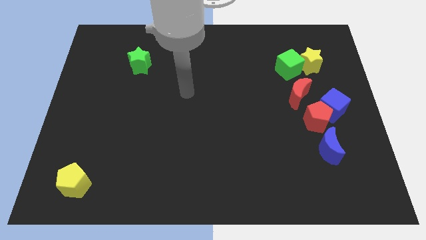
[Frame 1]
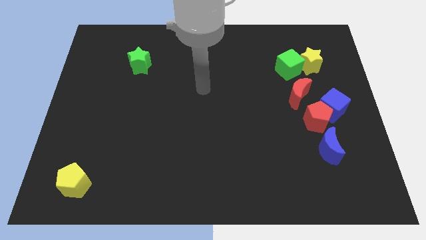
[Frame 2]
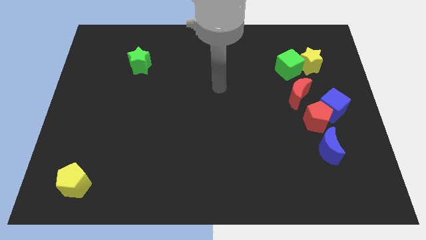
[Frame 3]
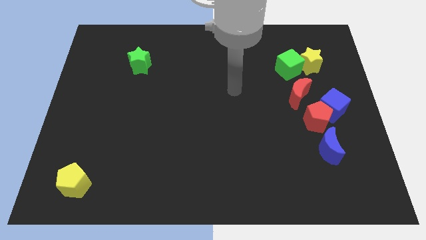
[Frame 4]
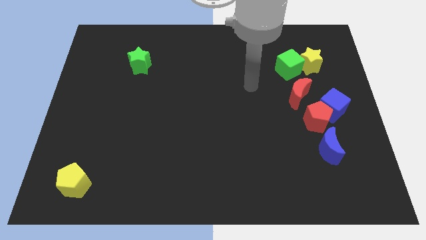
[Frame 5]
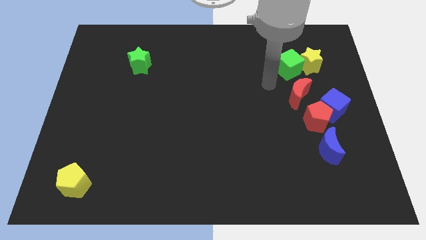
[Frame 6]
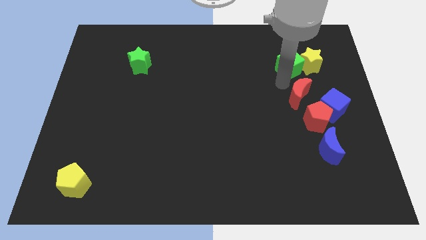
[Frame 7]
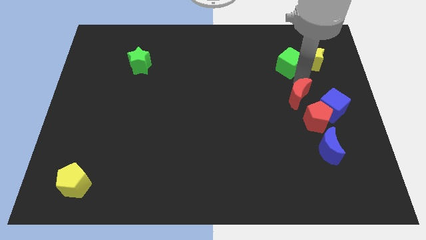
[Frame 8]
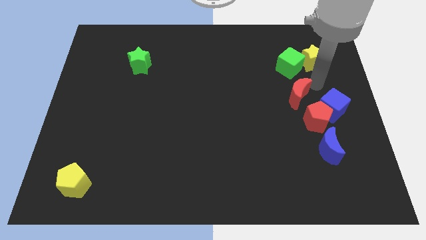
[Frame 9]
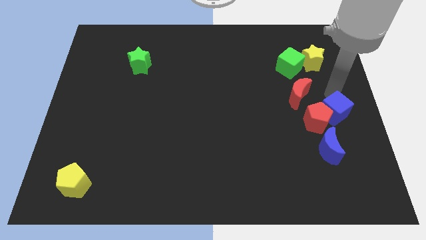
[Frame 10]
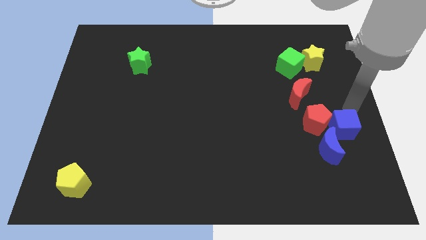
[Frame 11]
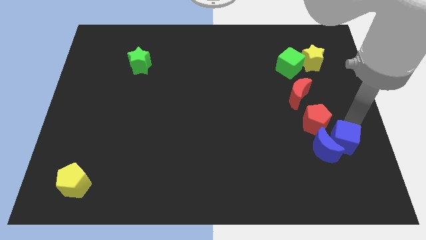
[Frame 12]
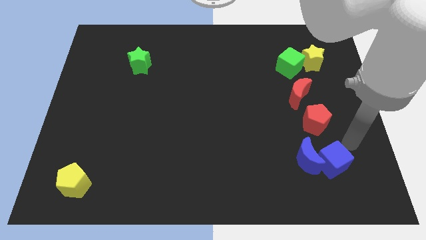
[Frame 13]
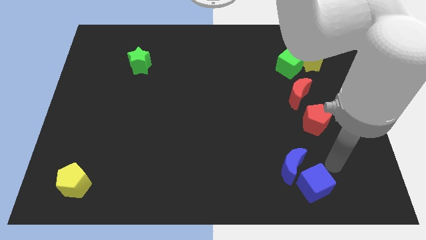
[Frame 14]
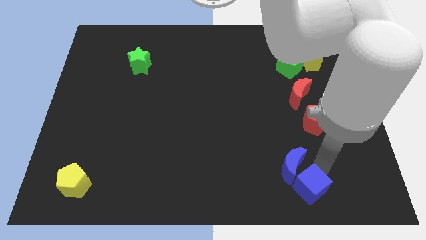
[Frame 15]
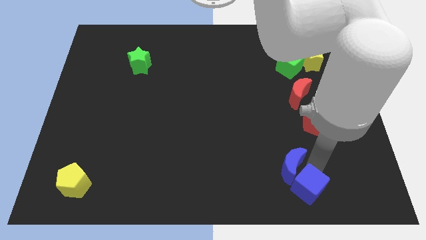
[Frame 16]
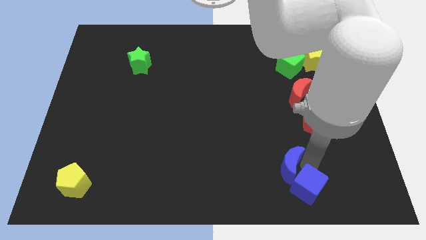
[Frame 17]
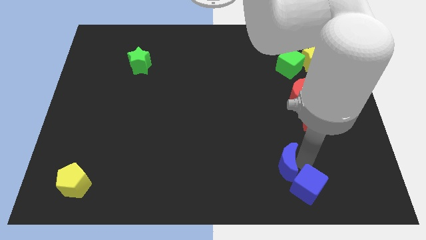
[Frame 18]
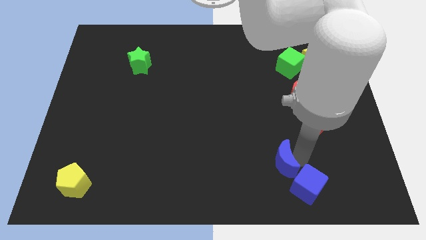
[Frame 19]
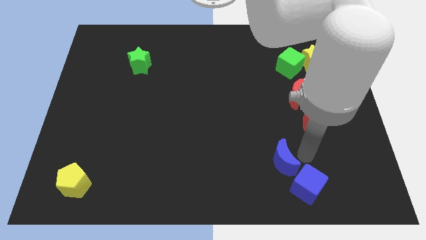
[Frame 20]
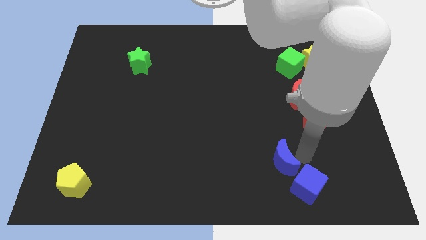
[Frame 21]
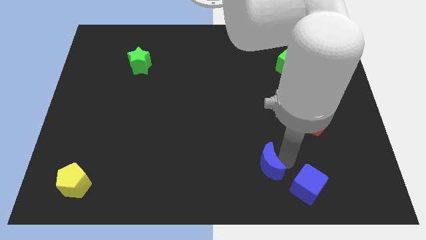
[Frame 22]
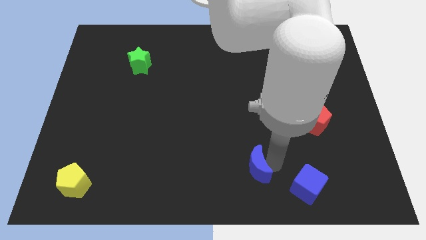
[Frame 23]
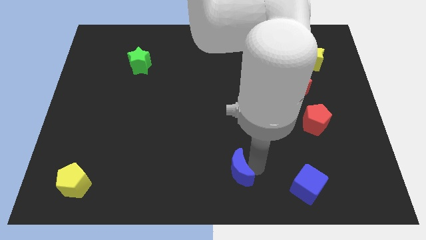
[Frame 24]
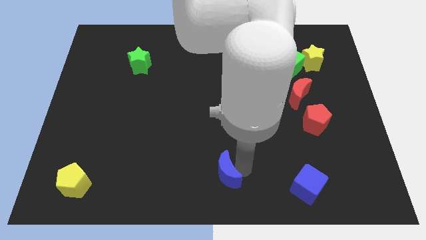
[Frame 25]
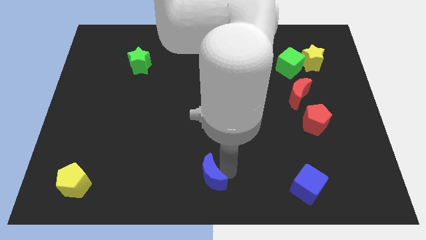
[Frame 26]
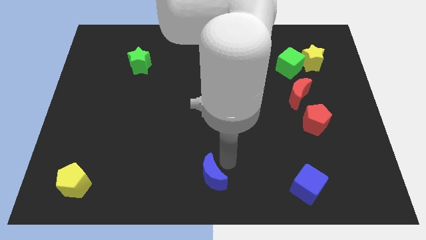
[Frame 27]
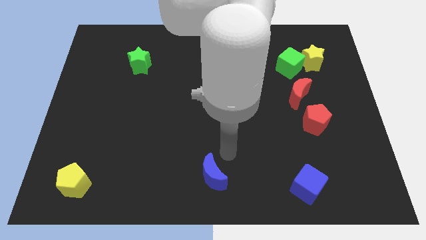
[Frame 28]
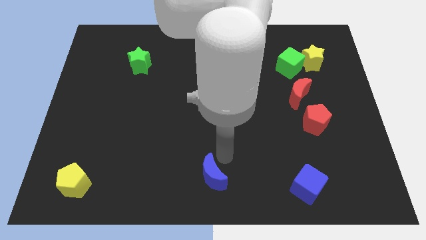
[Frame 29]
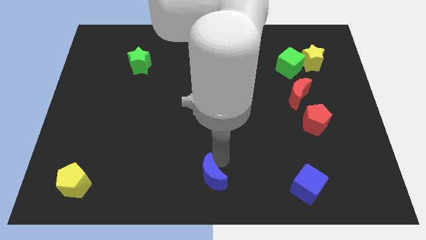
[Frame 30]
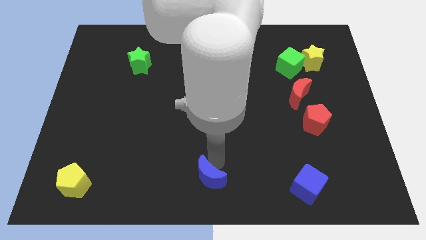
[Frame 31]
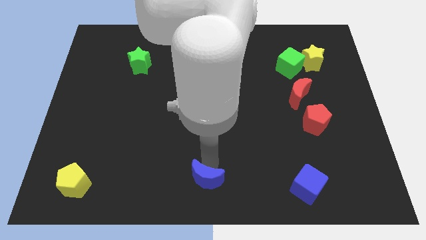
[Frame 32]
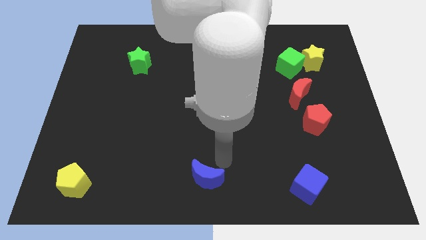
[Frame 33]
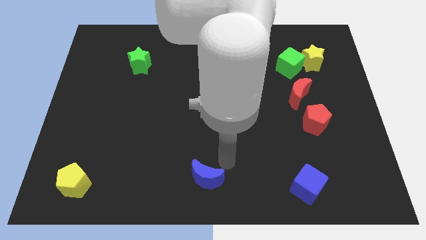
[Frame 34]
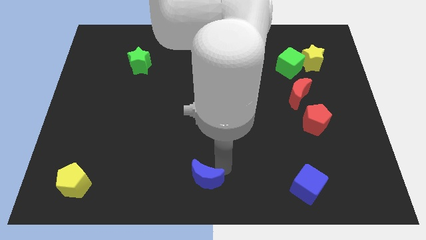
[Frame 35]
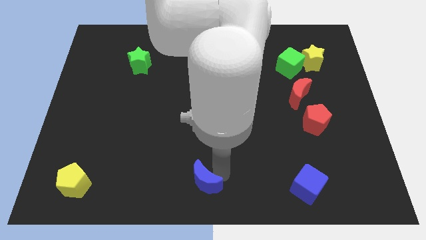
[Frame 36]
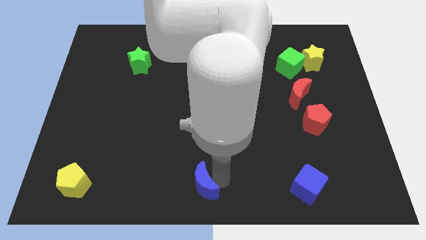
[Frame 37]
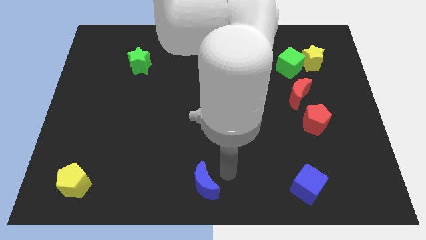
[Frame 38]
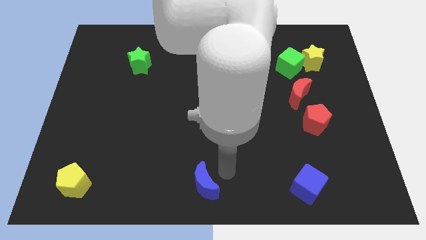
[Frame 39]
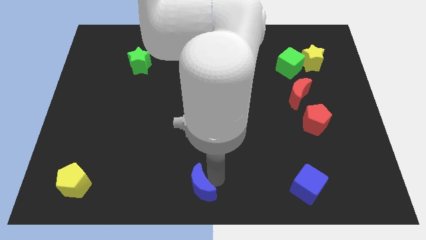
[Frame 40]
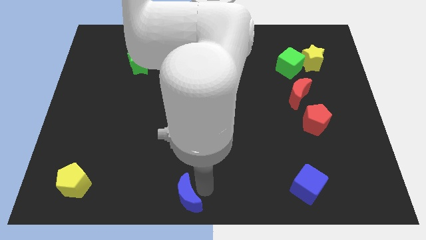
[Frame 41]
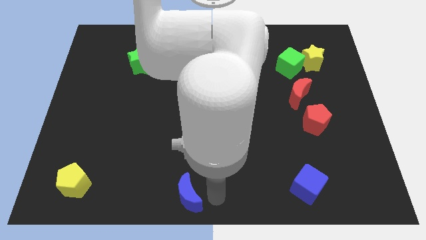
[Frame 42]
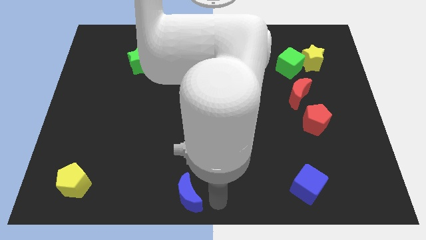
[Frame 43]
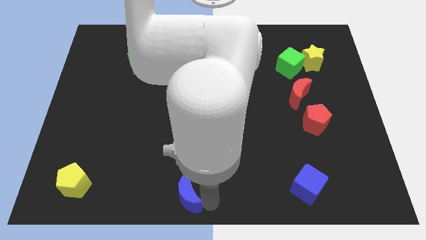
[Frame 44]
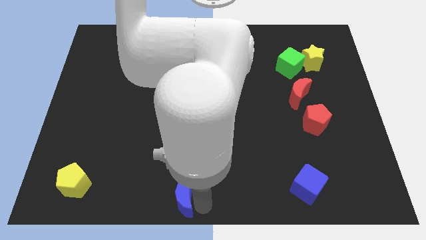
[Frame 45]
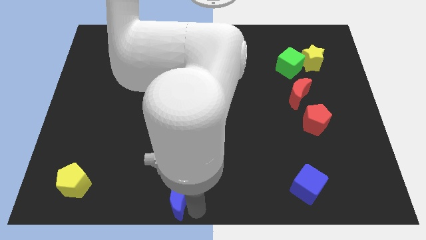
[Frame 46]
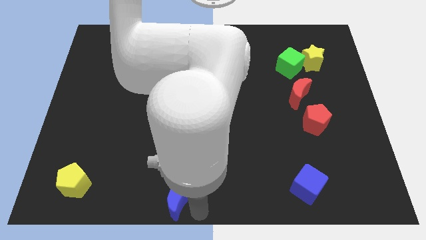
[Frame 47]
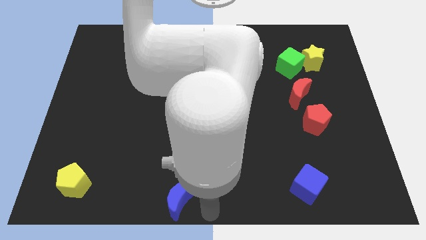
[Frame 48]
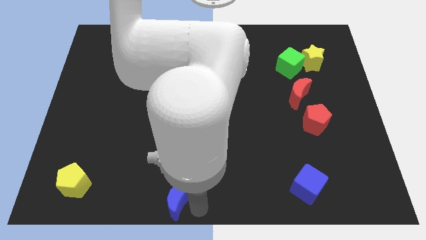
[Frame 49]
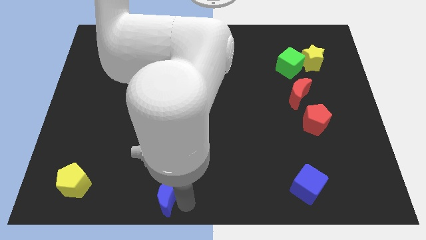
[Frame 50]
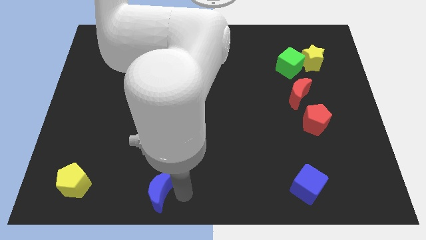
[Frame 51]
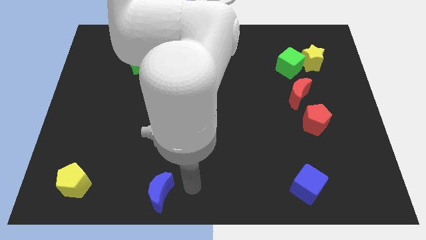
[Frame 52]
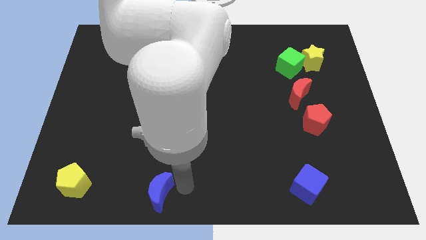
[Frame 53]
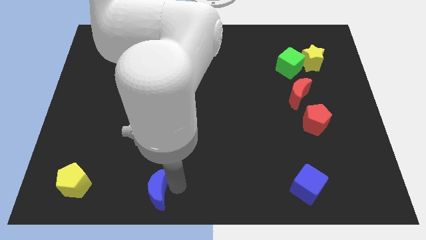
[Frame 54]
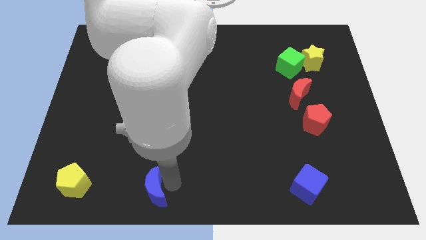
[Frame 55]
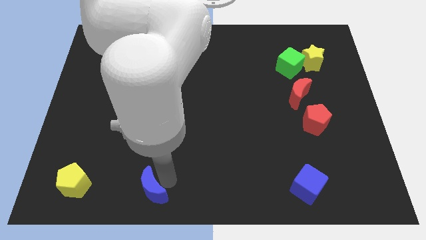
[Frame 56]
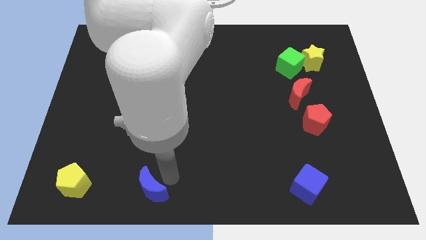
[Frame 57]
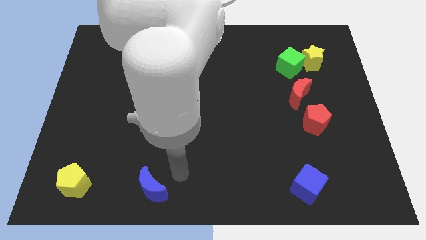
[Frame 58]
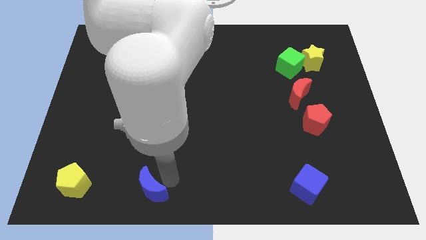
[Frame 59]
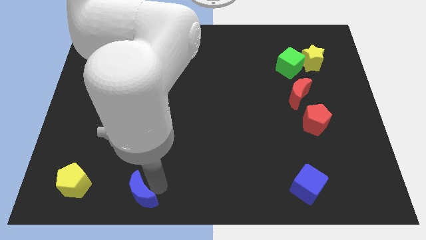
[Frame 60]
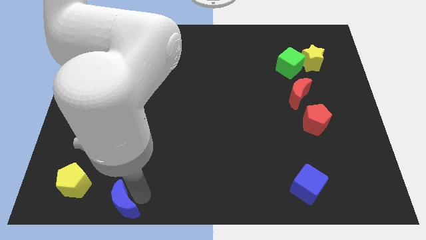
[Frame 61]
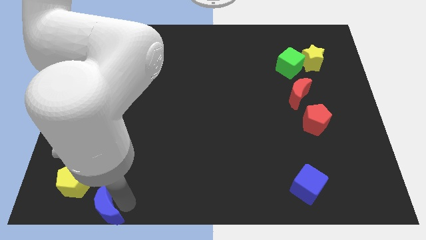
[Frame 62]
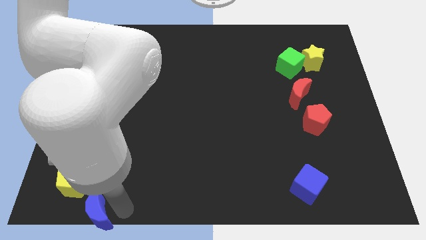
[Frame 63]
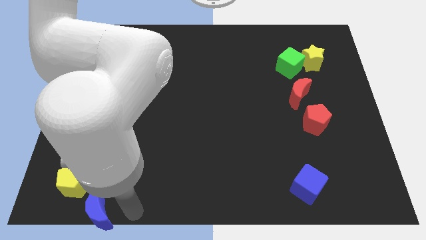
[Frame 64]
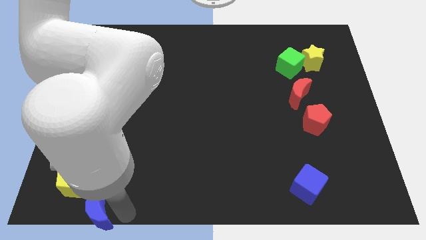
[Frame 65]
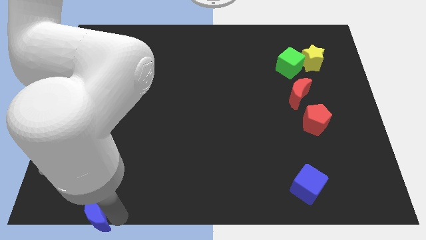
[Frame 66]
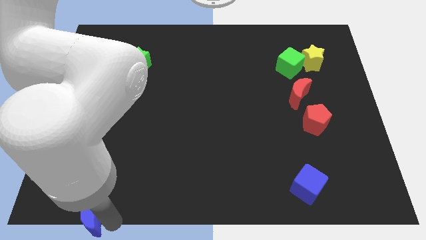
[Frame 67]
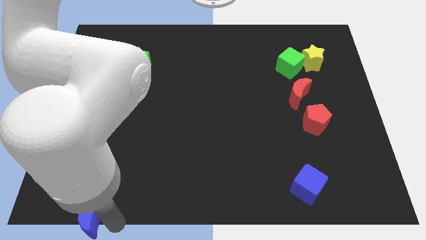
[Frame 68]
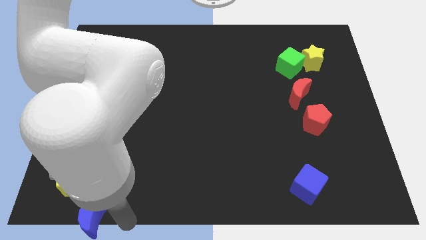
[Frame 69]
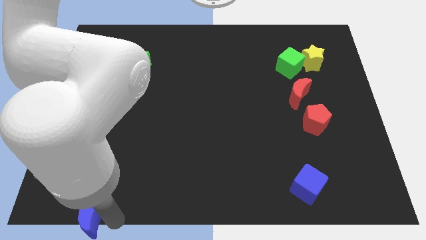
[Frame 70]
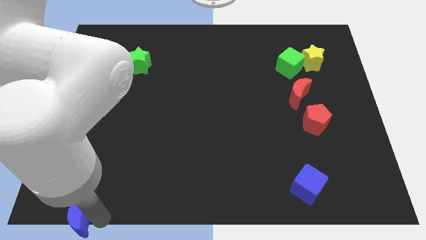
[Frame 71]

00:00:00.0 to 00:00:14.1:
slide the blue moon to the bottom left

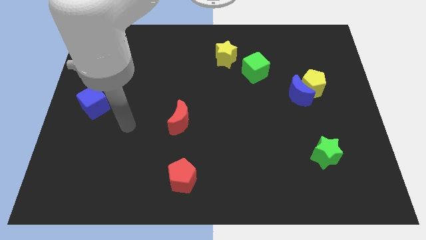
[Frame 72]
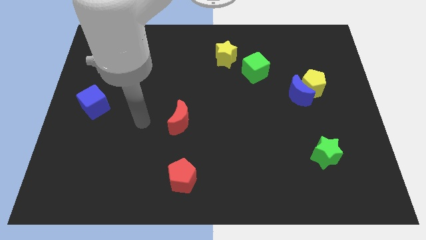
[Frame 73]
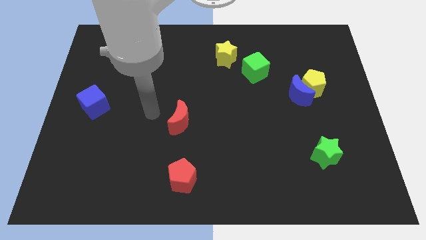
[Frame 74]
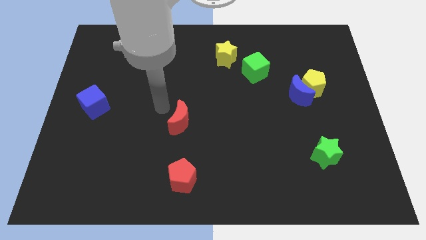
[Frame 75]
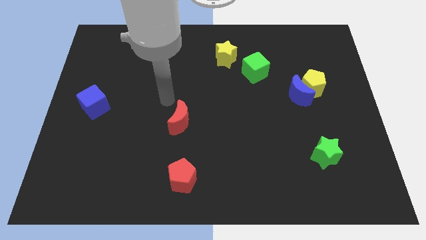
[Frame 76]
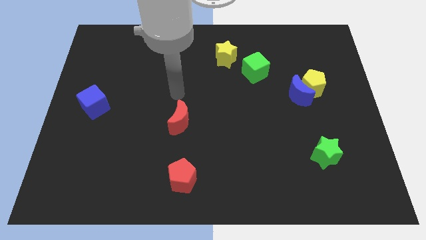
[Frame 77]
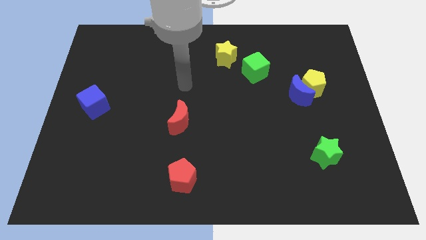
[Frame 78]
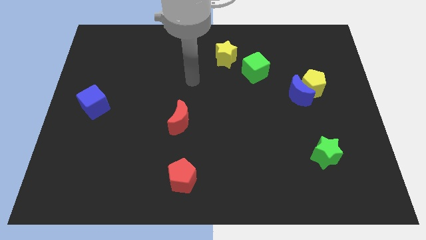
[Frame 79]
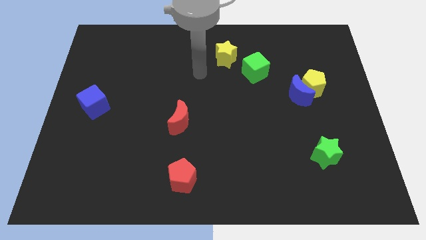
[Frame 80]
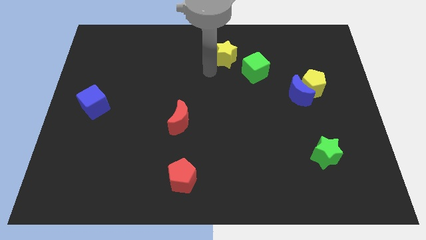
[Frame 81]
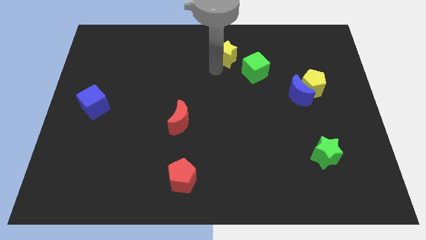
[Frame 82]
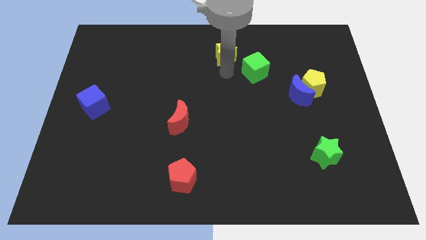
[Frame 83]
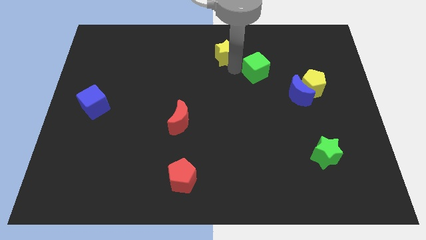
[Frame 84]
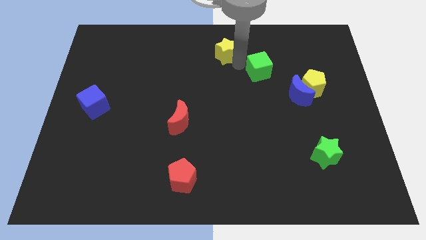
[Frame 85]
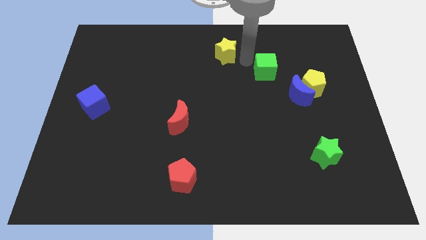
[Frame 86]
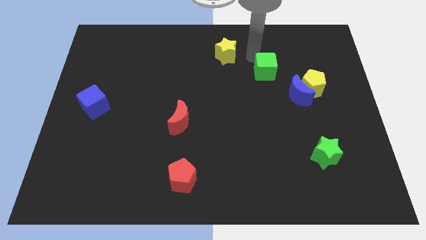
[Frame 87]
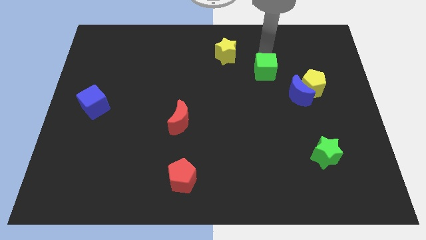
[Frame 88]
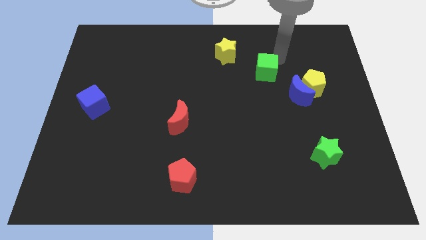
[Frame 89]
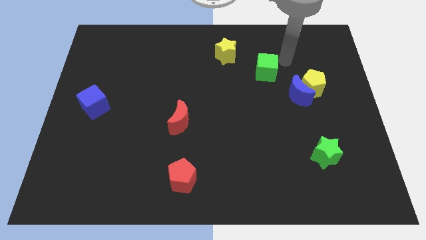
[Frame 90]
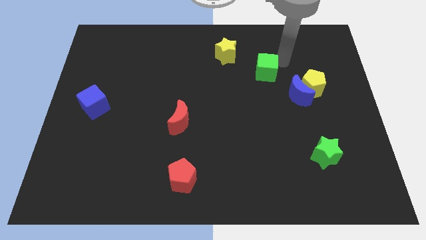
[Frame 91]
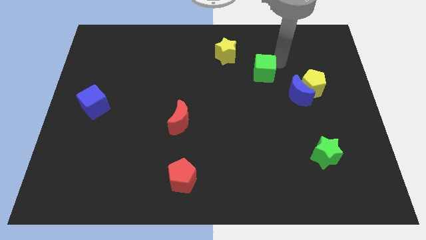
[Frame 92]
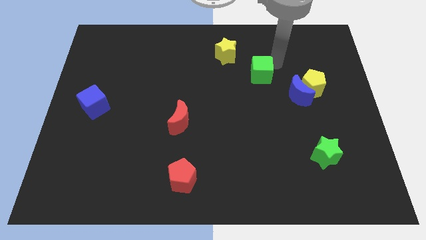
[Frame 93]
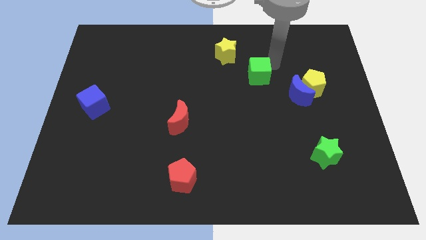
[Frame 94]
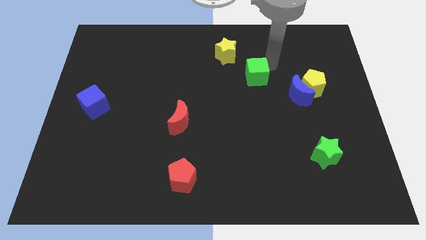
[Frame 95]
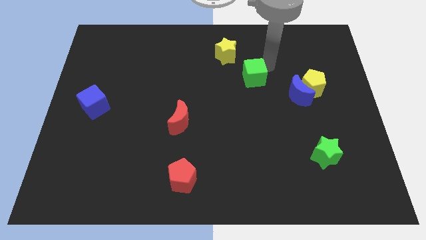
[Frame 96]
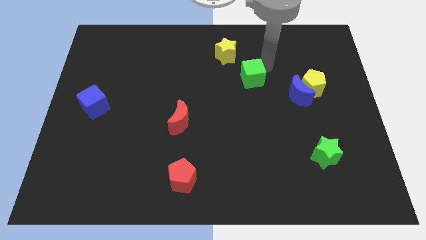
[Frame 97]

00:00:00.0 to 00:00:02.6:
push the green cube to the center
